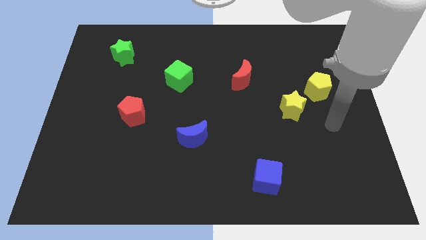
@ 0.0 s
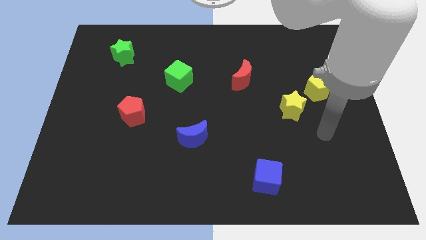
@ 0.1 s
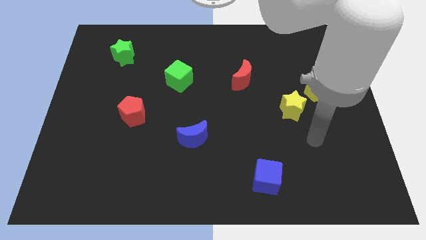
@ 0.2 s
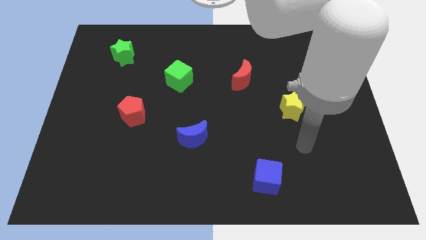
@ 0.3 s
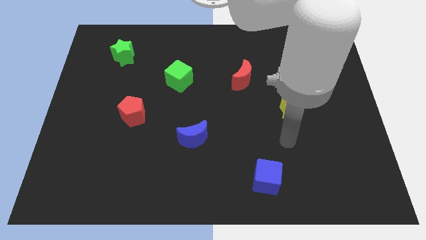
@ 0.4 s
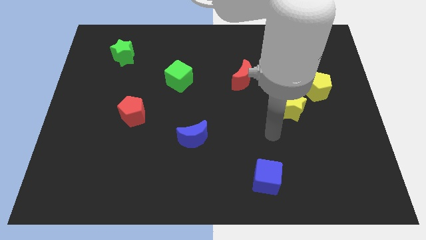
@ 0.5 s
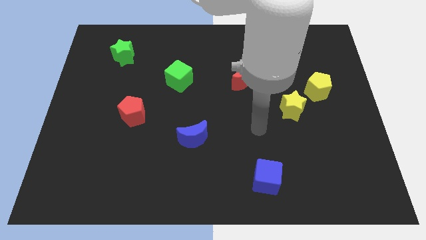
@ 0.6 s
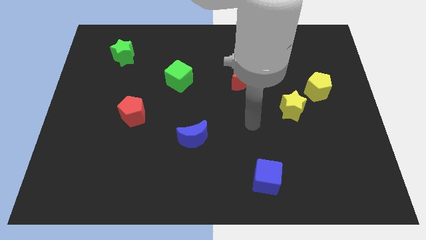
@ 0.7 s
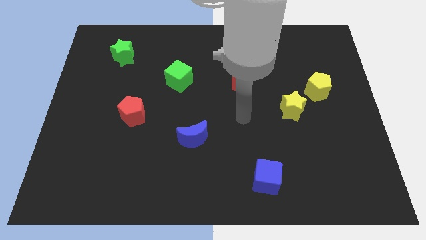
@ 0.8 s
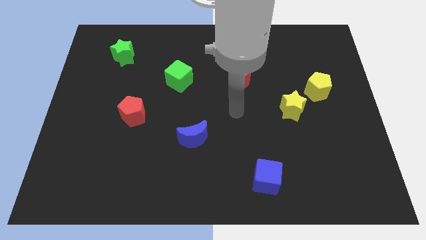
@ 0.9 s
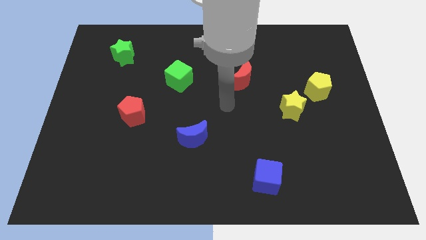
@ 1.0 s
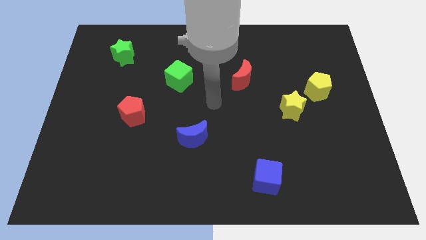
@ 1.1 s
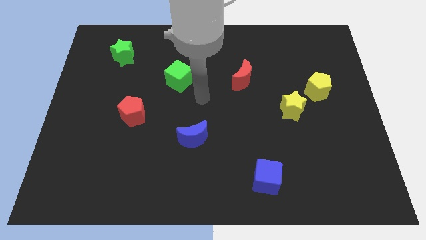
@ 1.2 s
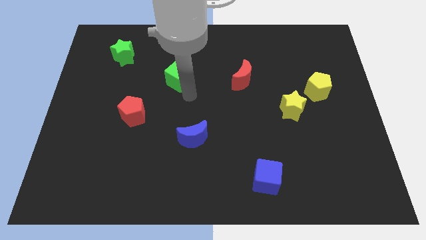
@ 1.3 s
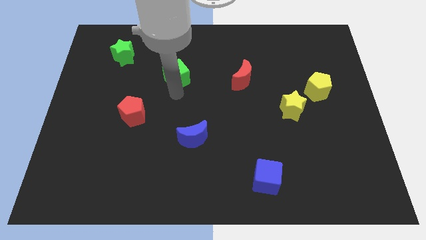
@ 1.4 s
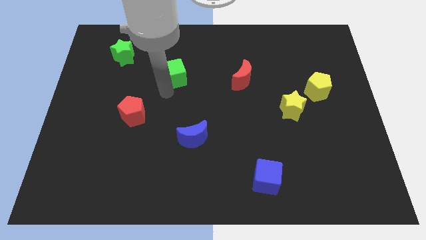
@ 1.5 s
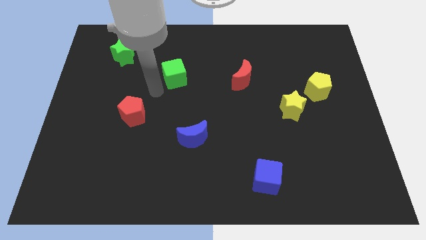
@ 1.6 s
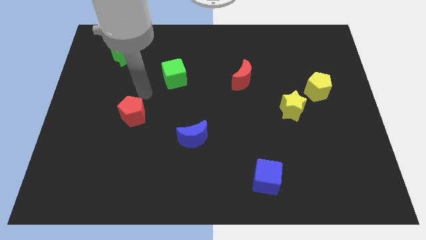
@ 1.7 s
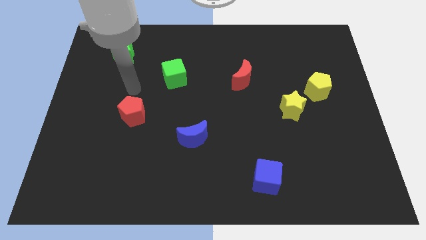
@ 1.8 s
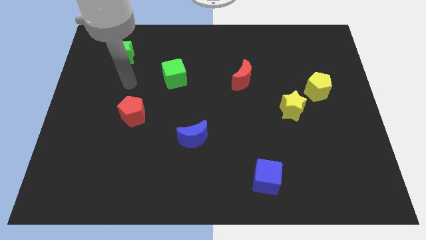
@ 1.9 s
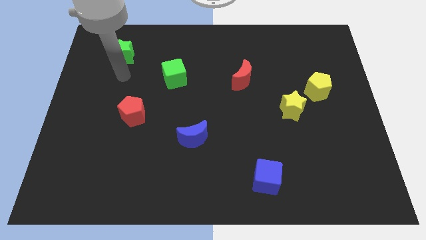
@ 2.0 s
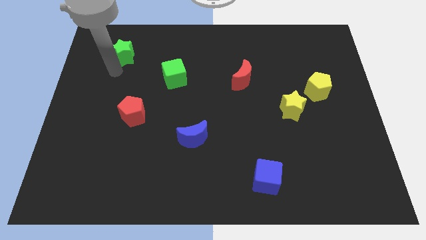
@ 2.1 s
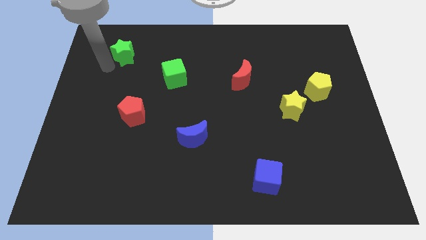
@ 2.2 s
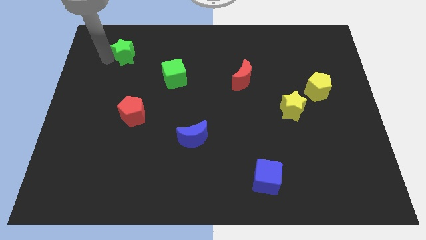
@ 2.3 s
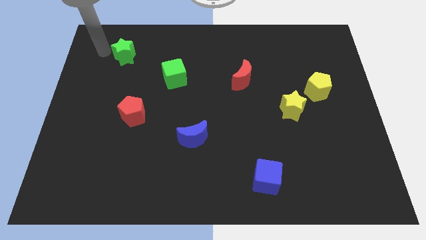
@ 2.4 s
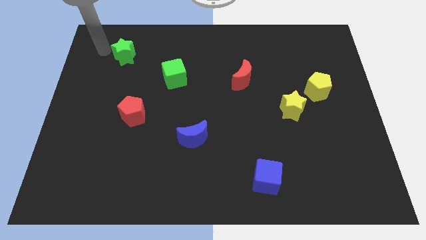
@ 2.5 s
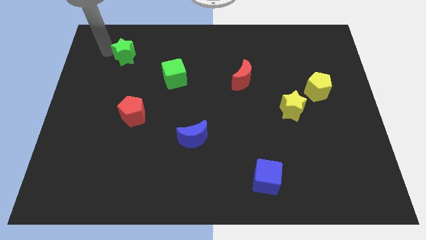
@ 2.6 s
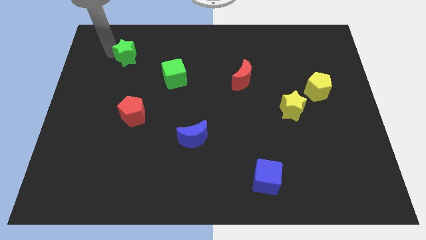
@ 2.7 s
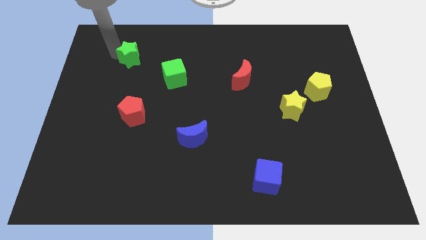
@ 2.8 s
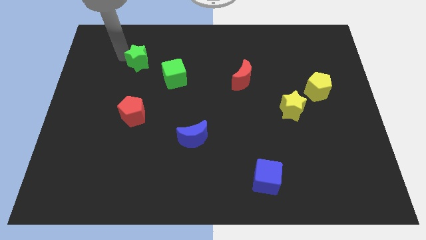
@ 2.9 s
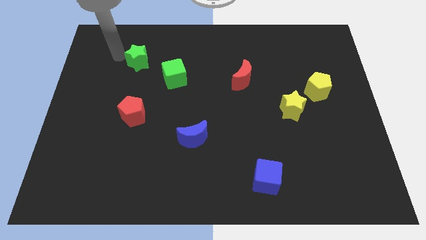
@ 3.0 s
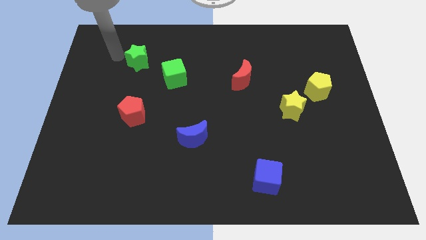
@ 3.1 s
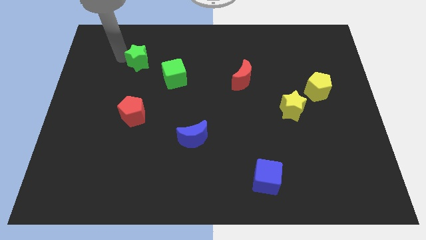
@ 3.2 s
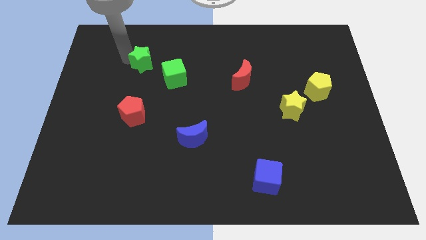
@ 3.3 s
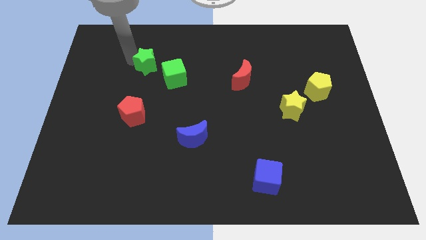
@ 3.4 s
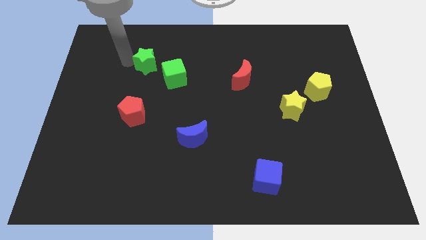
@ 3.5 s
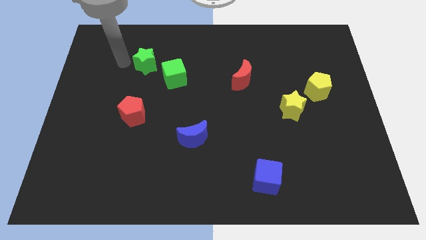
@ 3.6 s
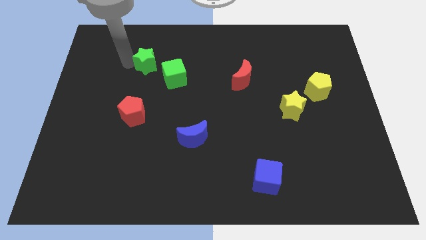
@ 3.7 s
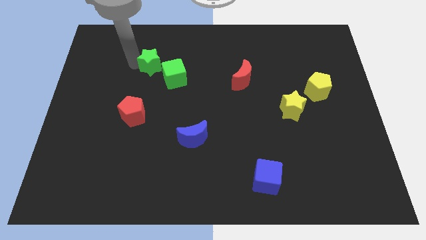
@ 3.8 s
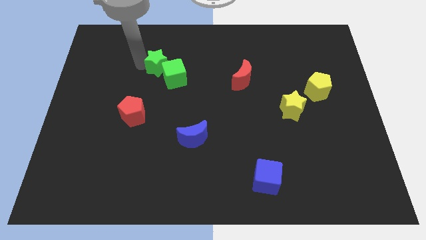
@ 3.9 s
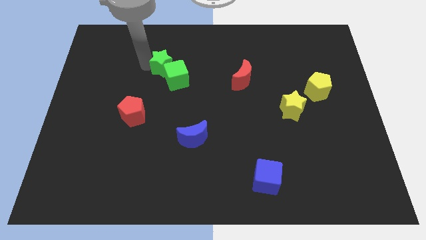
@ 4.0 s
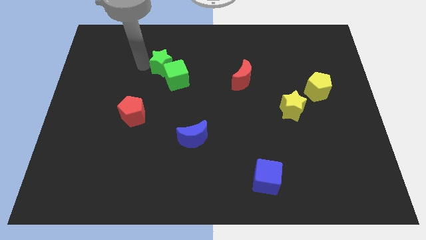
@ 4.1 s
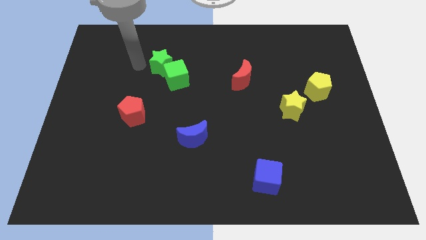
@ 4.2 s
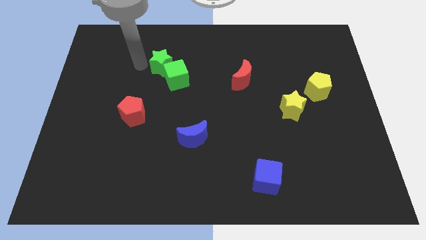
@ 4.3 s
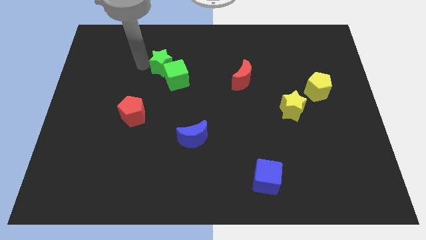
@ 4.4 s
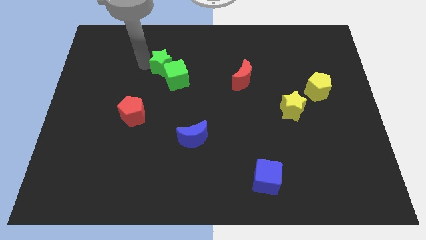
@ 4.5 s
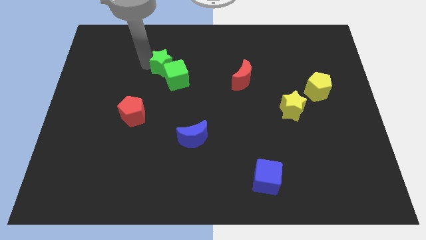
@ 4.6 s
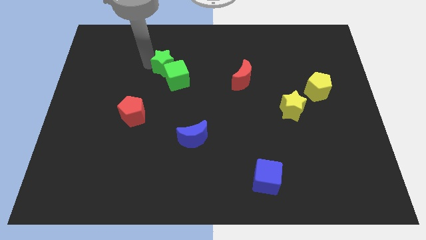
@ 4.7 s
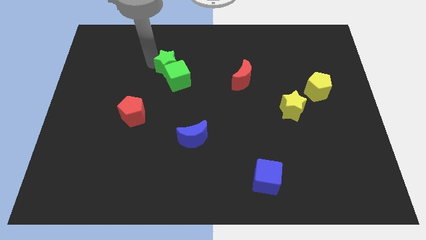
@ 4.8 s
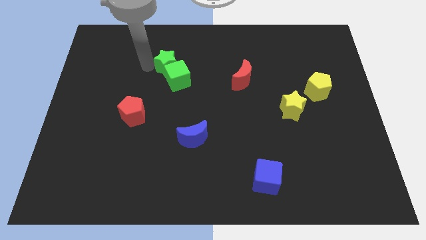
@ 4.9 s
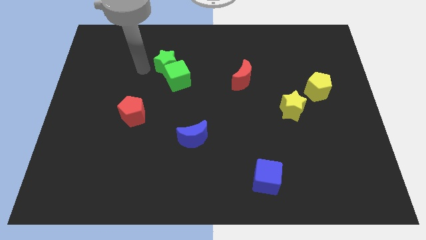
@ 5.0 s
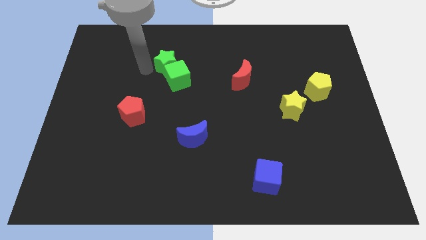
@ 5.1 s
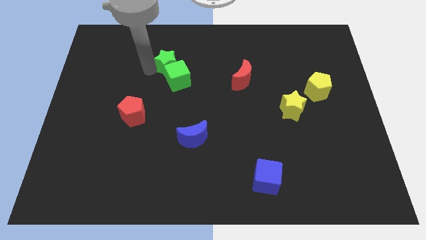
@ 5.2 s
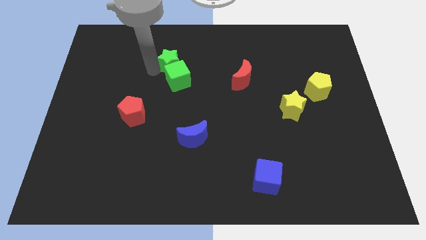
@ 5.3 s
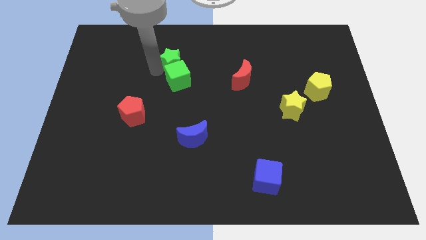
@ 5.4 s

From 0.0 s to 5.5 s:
put the green star to the top right side of the green cube
